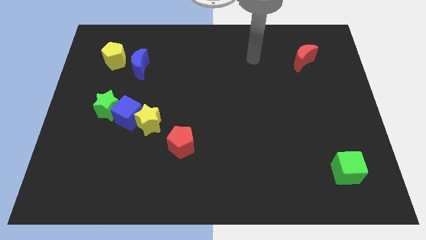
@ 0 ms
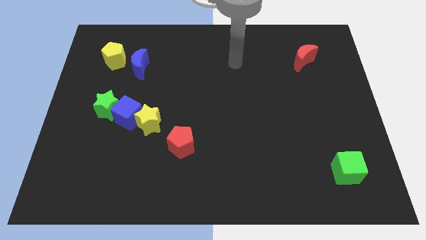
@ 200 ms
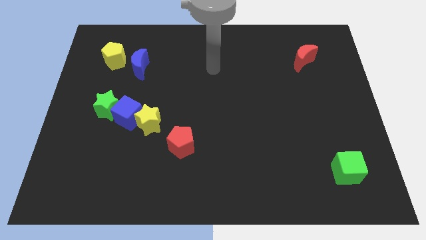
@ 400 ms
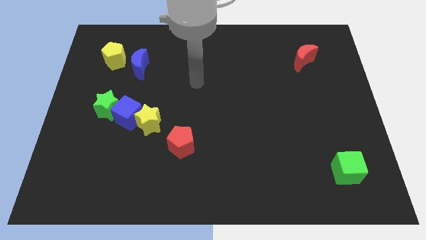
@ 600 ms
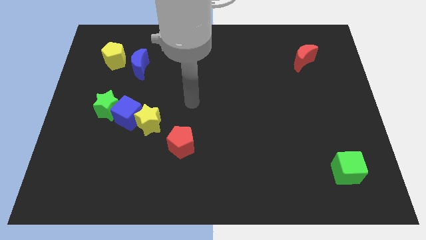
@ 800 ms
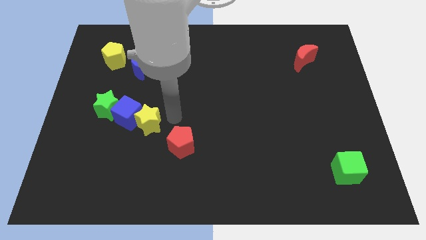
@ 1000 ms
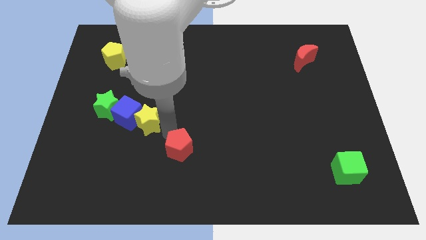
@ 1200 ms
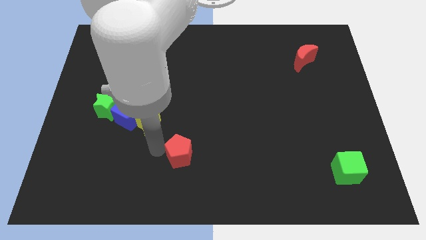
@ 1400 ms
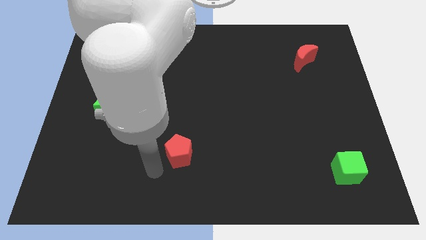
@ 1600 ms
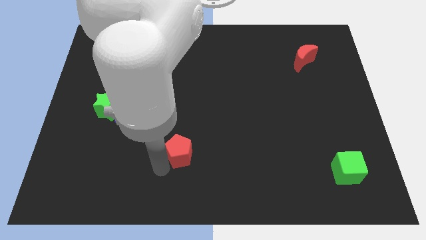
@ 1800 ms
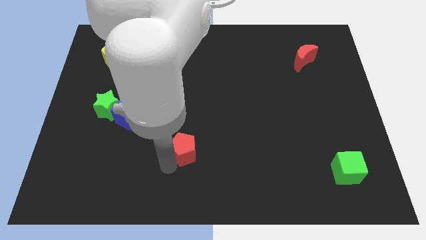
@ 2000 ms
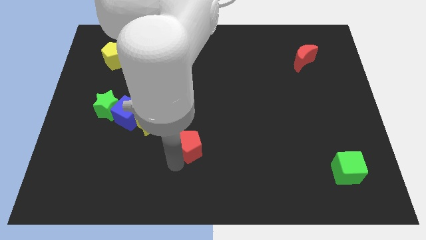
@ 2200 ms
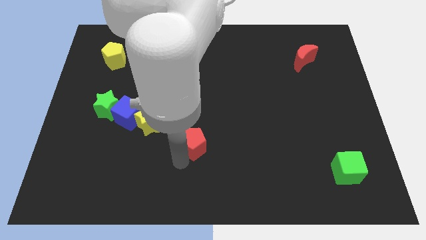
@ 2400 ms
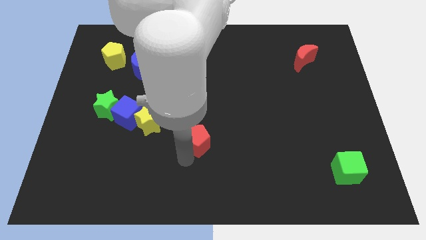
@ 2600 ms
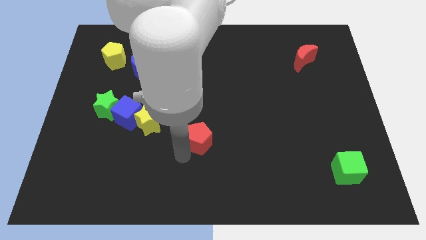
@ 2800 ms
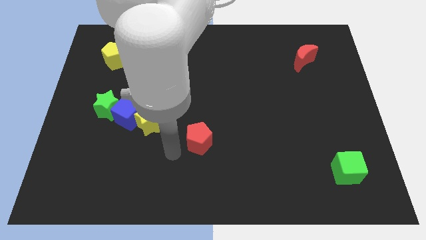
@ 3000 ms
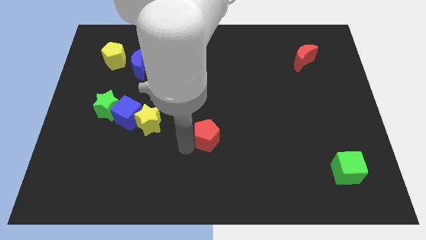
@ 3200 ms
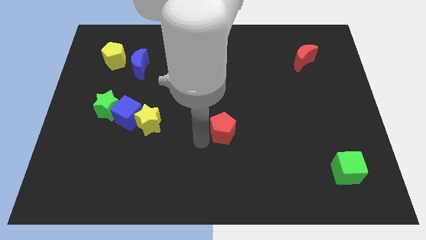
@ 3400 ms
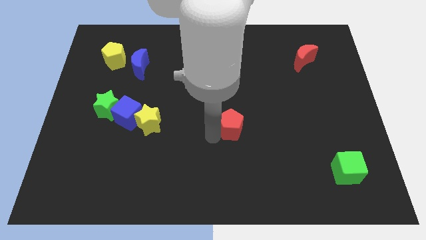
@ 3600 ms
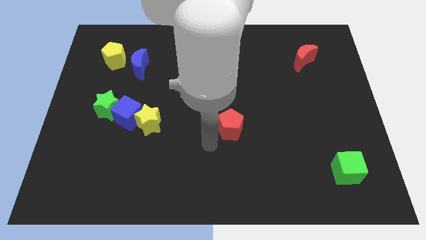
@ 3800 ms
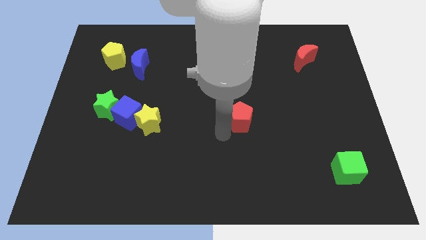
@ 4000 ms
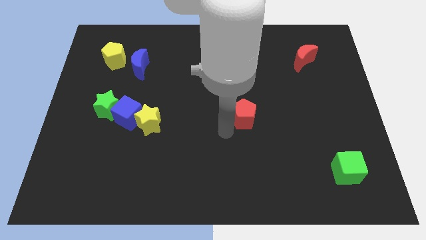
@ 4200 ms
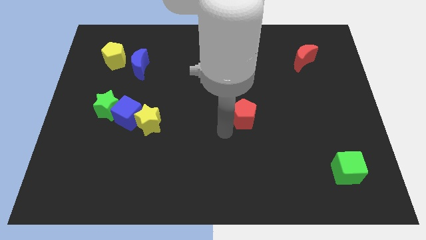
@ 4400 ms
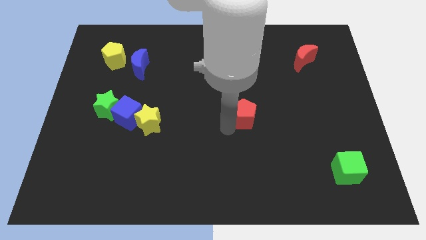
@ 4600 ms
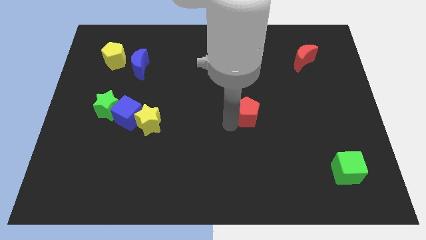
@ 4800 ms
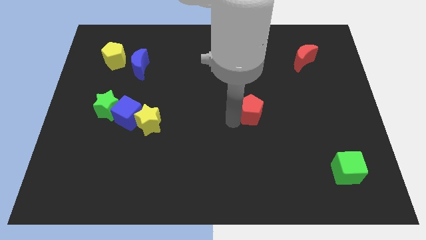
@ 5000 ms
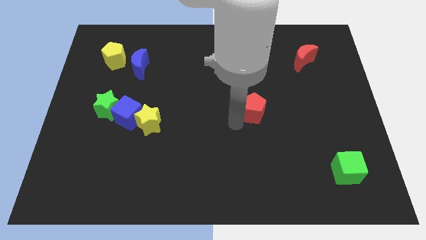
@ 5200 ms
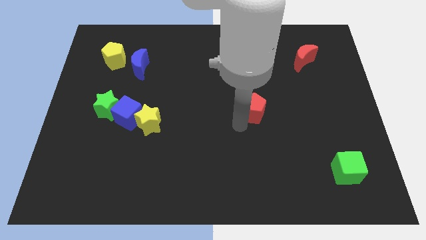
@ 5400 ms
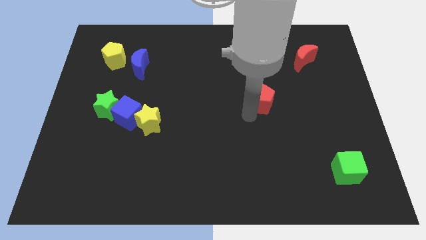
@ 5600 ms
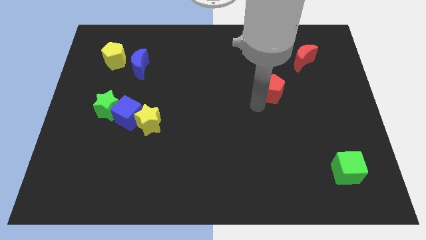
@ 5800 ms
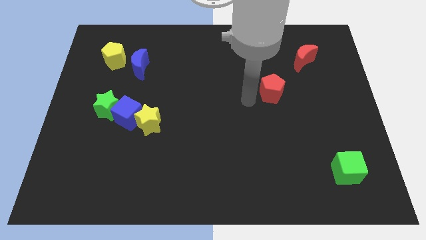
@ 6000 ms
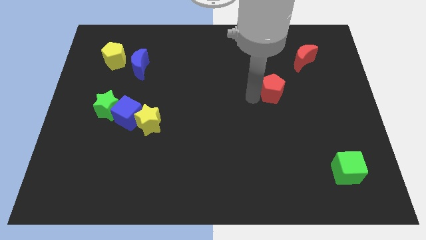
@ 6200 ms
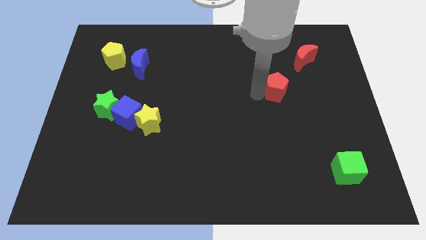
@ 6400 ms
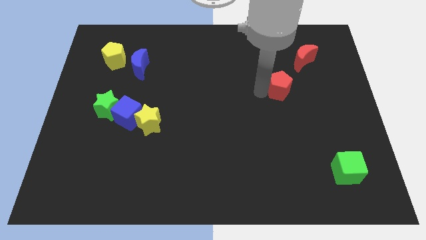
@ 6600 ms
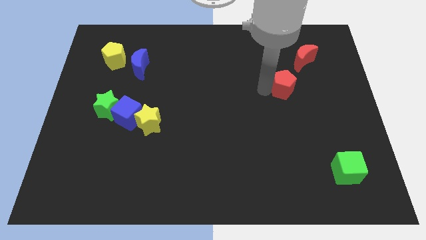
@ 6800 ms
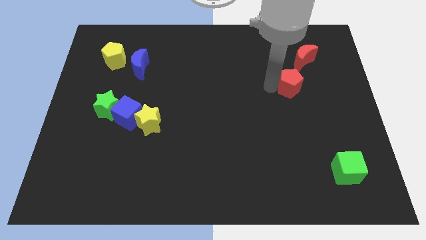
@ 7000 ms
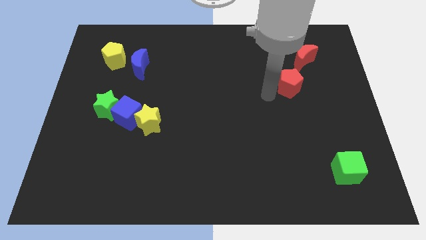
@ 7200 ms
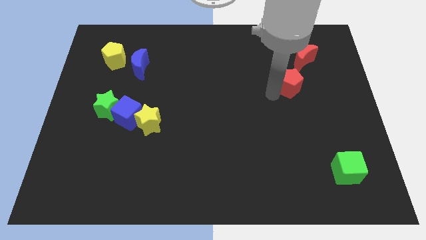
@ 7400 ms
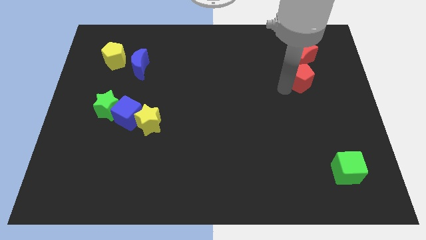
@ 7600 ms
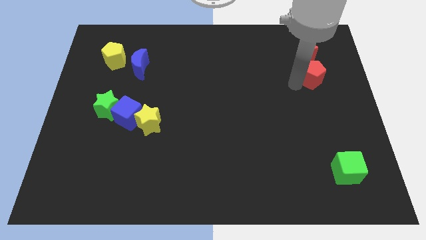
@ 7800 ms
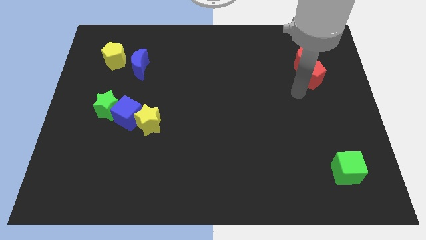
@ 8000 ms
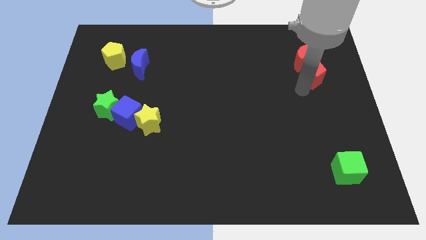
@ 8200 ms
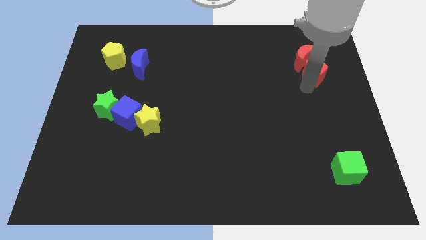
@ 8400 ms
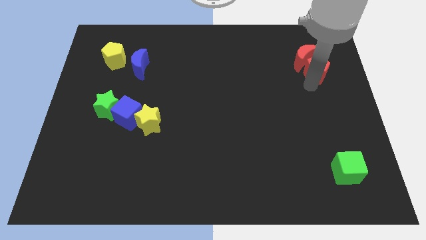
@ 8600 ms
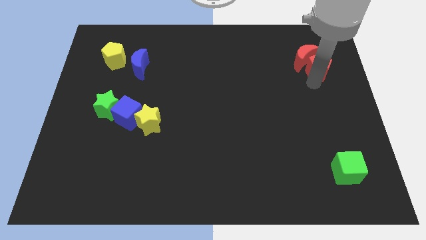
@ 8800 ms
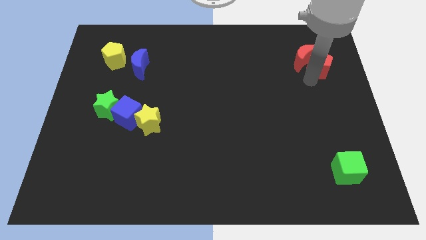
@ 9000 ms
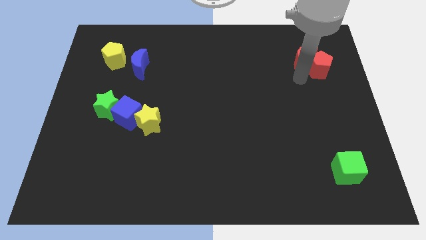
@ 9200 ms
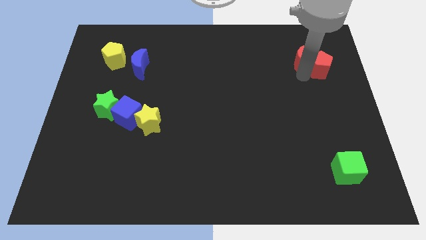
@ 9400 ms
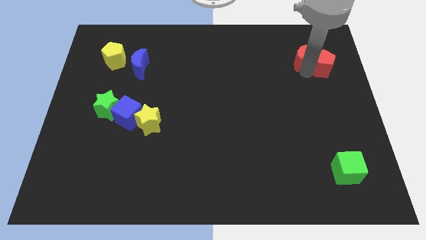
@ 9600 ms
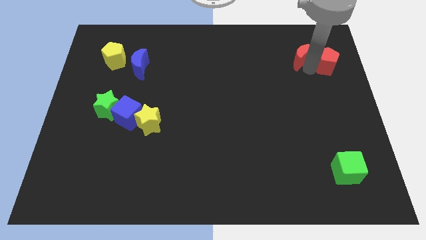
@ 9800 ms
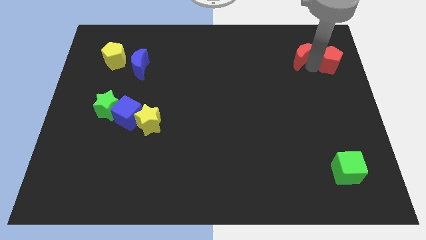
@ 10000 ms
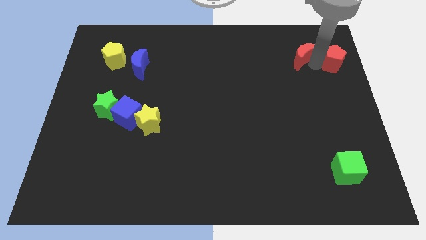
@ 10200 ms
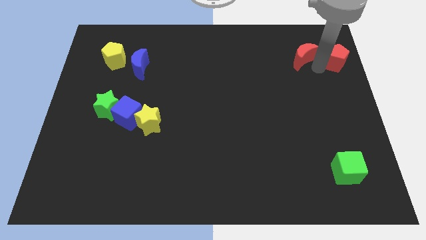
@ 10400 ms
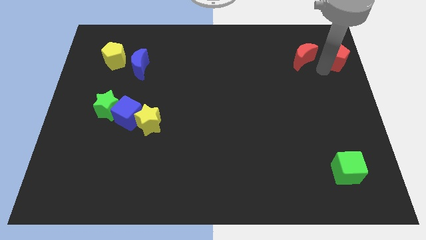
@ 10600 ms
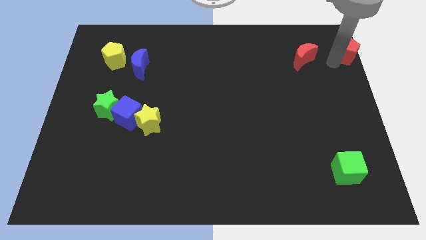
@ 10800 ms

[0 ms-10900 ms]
move the red pentagon to the top right
